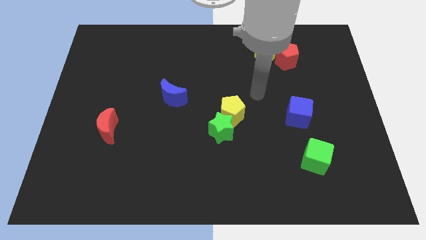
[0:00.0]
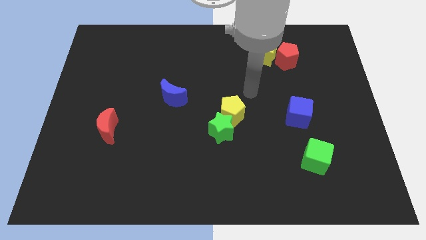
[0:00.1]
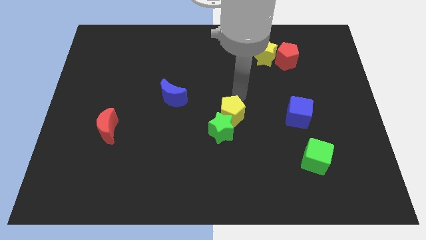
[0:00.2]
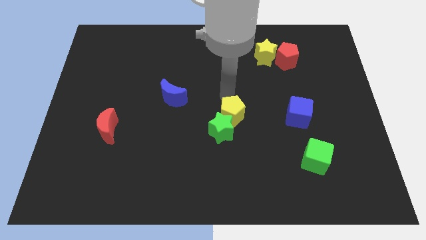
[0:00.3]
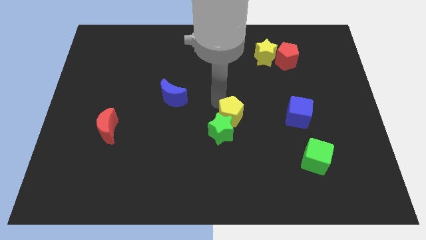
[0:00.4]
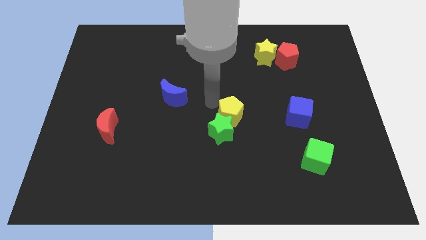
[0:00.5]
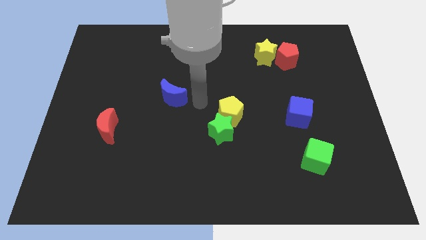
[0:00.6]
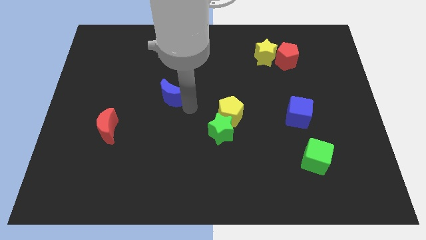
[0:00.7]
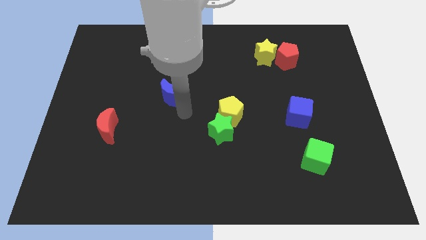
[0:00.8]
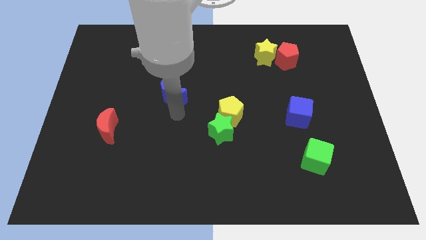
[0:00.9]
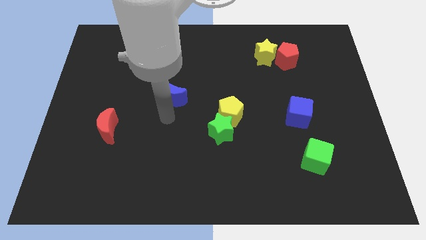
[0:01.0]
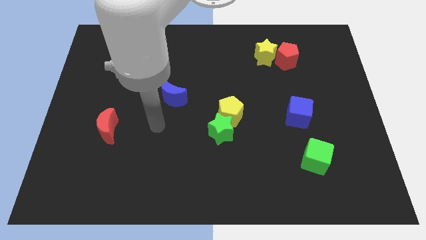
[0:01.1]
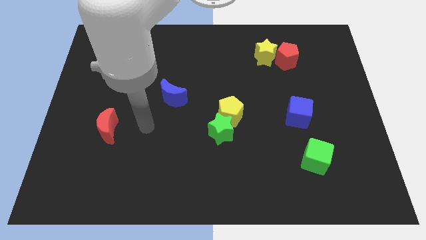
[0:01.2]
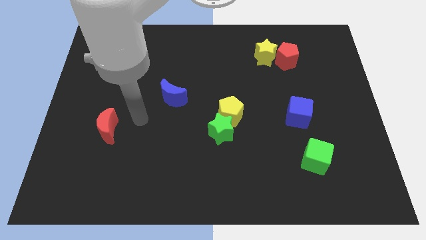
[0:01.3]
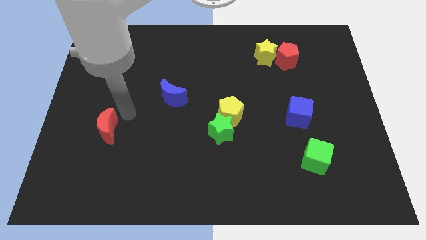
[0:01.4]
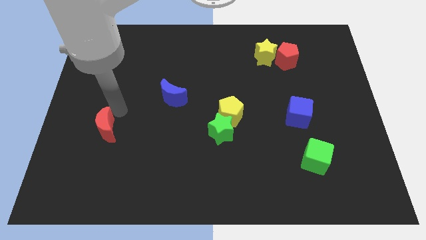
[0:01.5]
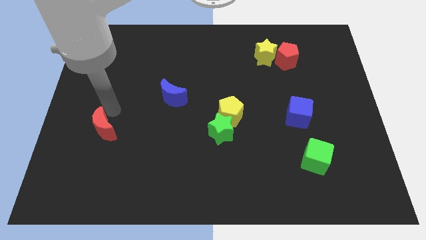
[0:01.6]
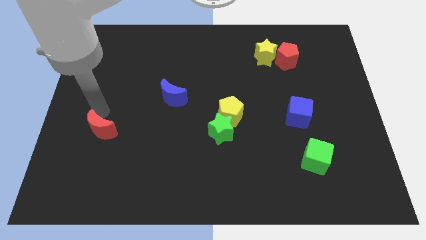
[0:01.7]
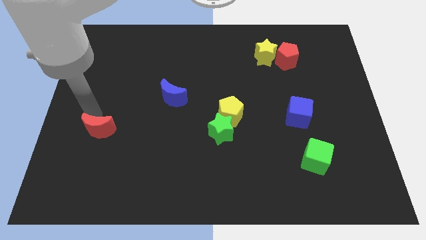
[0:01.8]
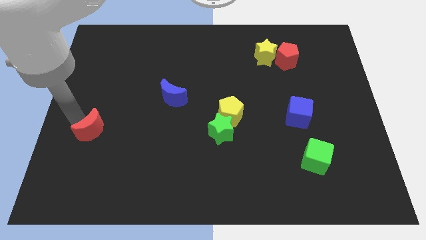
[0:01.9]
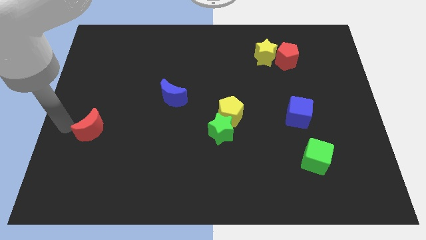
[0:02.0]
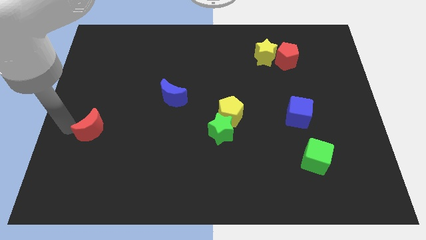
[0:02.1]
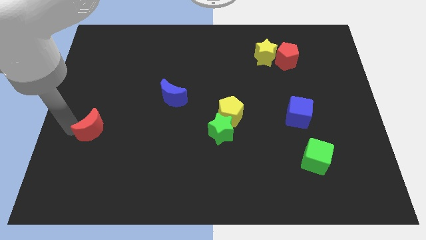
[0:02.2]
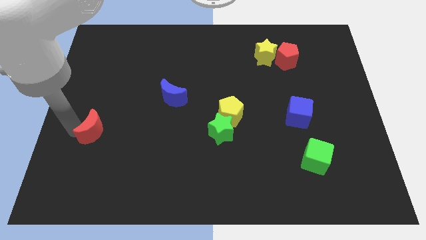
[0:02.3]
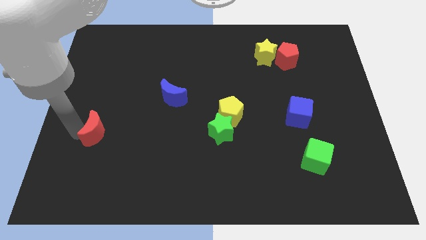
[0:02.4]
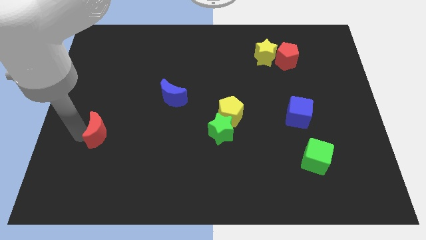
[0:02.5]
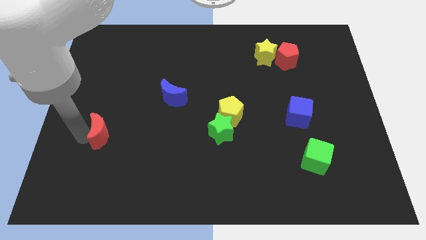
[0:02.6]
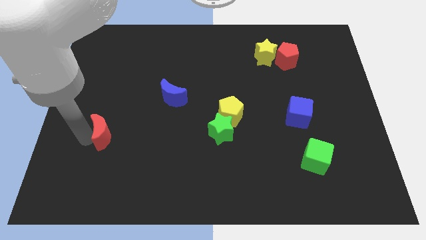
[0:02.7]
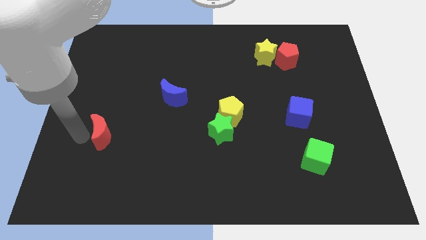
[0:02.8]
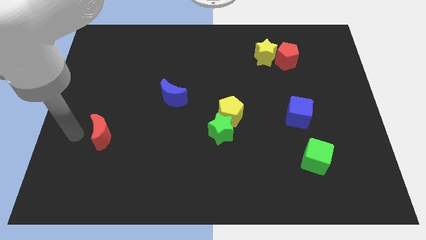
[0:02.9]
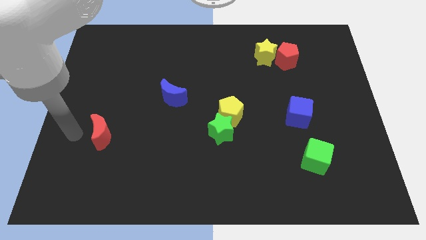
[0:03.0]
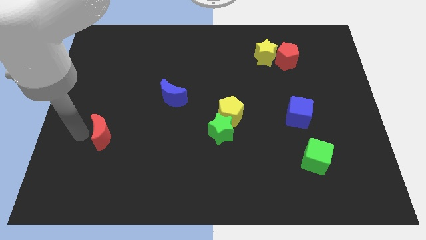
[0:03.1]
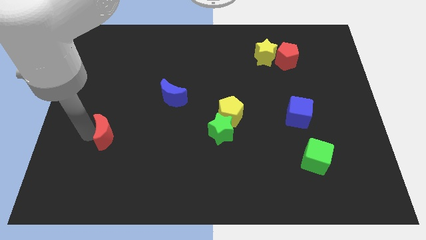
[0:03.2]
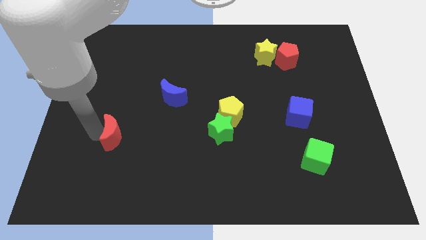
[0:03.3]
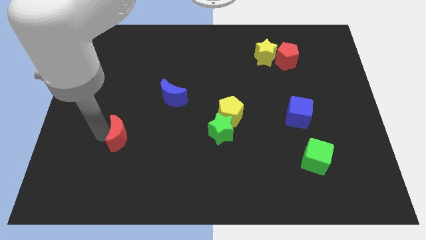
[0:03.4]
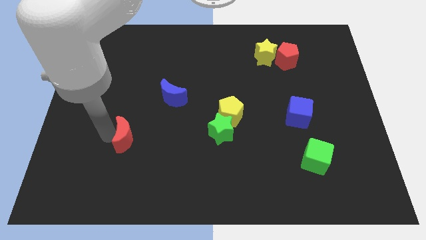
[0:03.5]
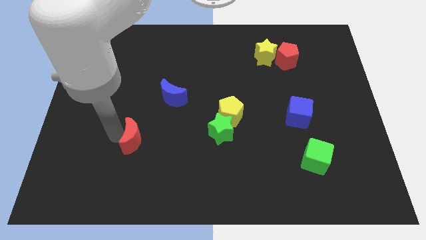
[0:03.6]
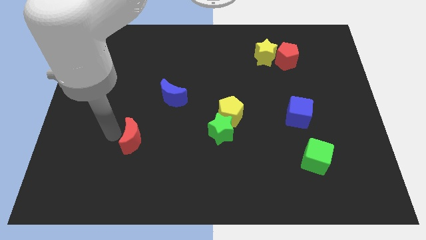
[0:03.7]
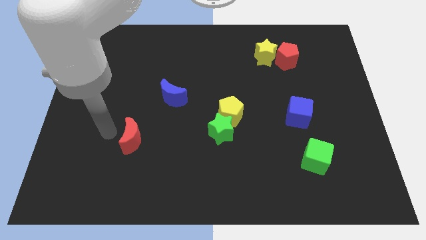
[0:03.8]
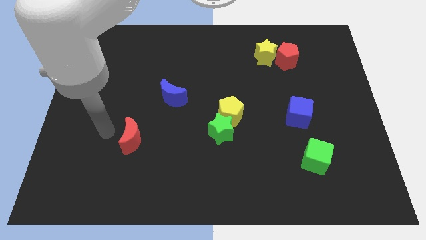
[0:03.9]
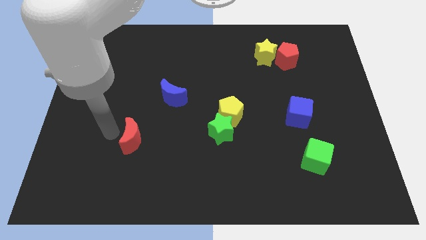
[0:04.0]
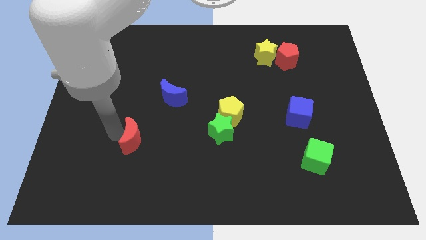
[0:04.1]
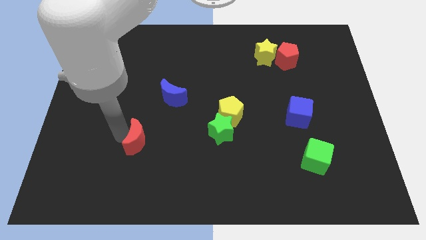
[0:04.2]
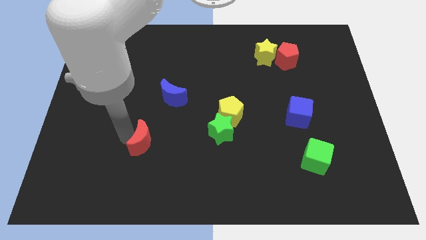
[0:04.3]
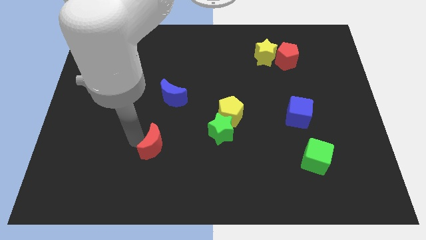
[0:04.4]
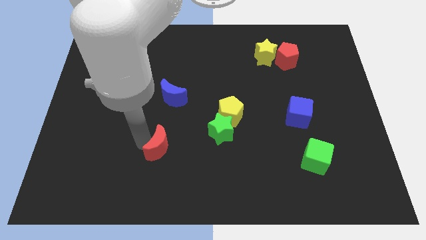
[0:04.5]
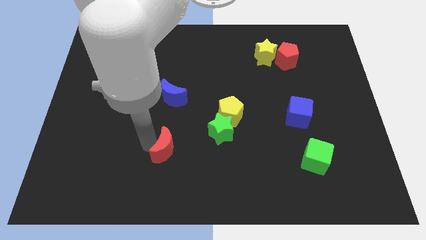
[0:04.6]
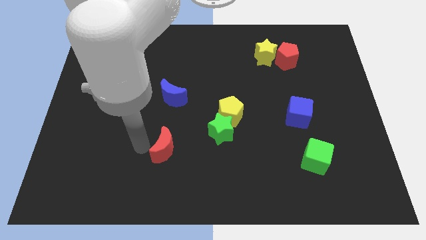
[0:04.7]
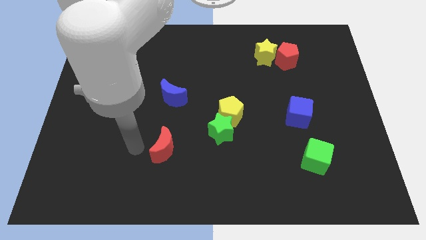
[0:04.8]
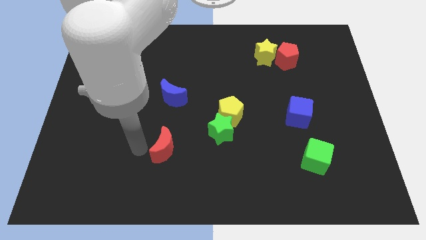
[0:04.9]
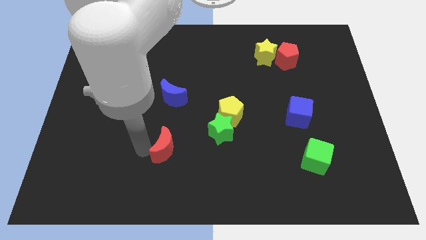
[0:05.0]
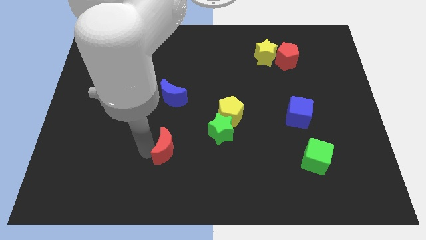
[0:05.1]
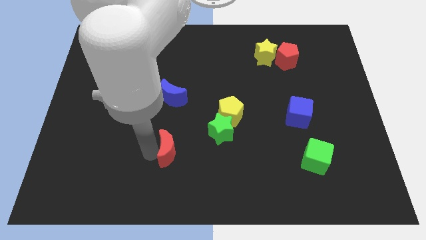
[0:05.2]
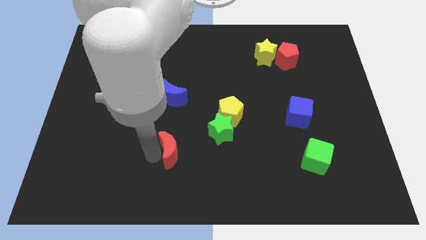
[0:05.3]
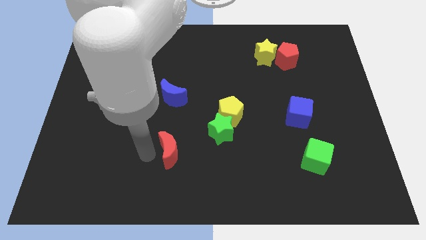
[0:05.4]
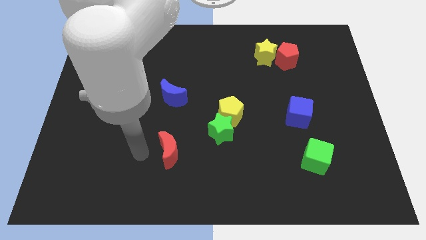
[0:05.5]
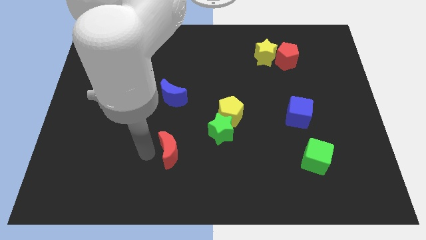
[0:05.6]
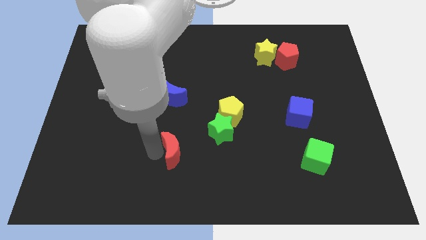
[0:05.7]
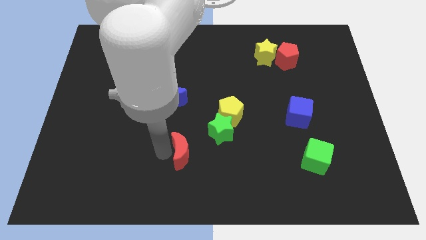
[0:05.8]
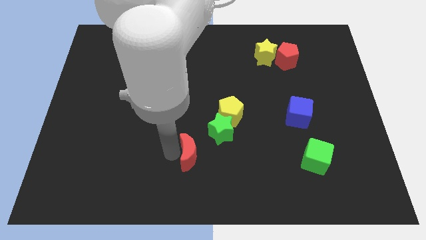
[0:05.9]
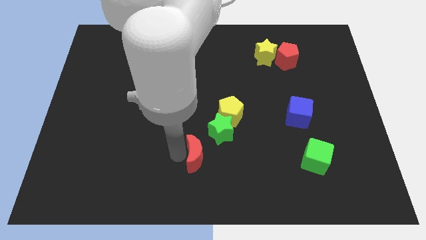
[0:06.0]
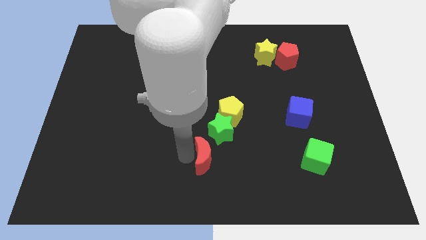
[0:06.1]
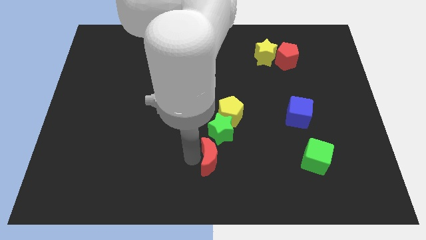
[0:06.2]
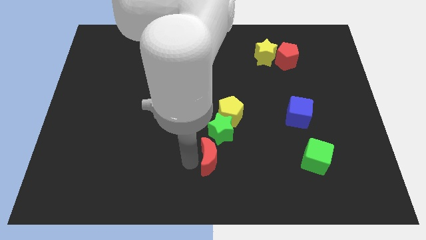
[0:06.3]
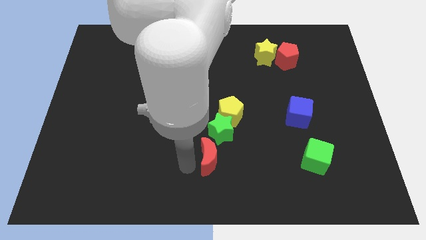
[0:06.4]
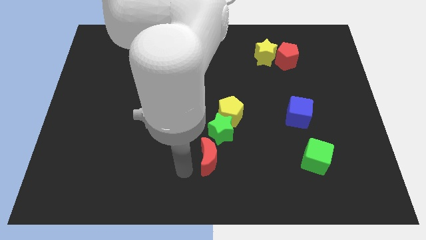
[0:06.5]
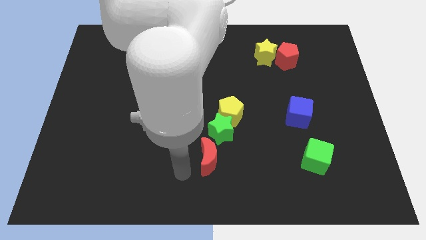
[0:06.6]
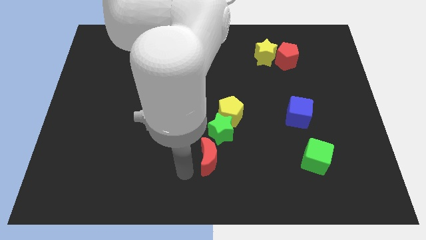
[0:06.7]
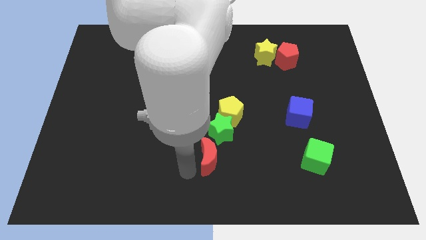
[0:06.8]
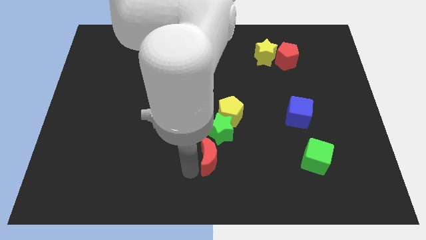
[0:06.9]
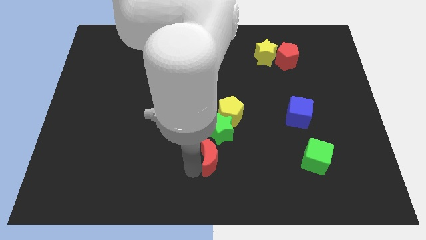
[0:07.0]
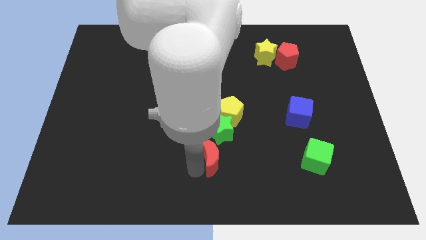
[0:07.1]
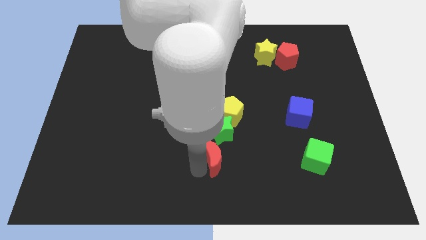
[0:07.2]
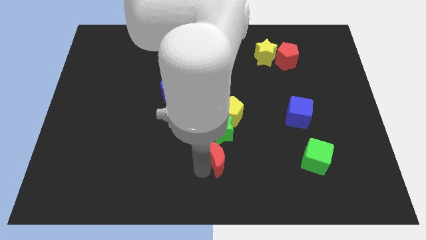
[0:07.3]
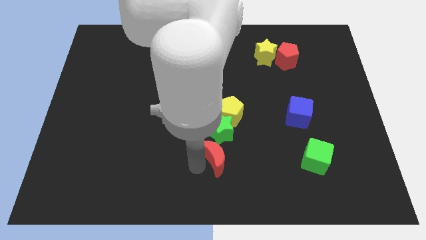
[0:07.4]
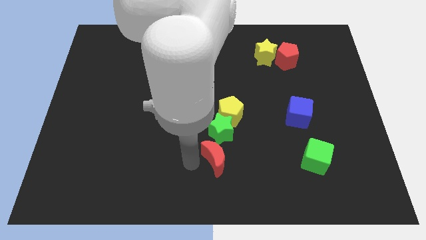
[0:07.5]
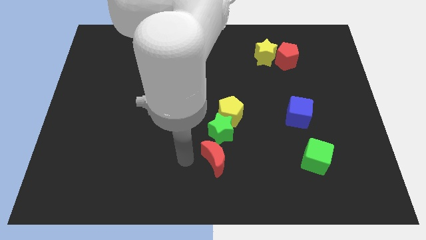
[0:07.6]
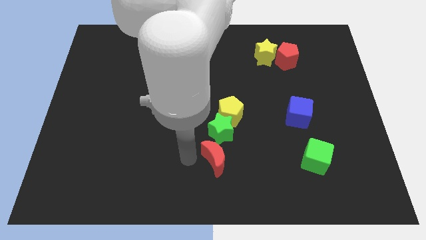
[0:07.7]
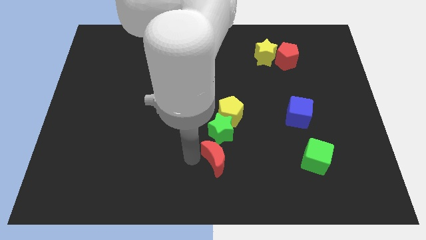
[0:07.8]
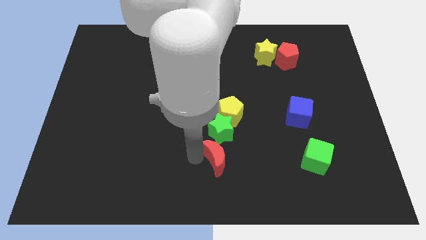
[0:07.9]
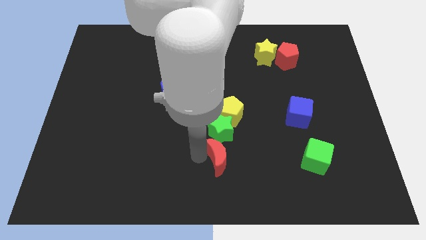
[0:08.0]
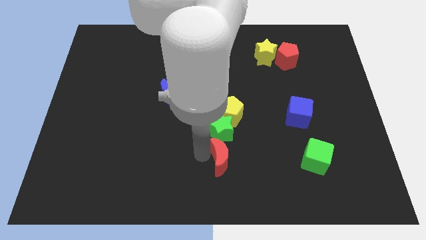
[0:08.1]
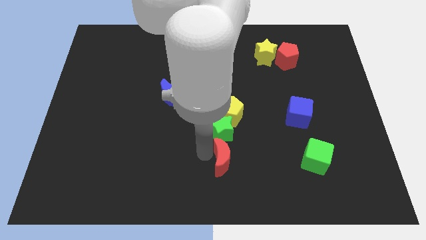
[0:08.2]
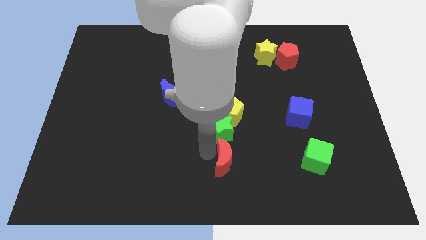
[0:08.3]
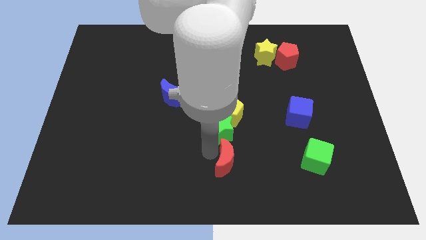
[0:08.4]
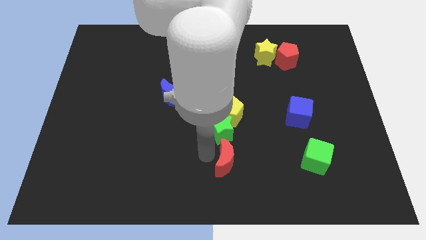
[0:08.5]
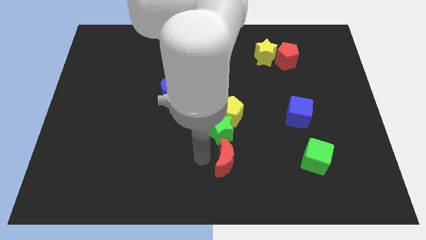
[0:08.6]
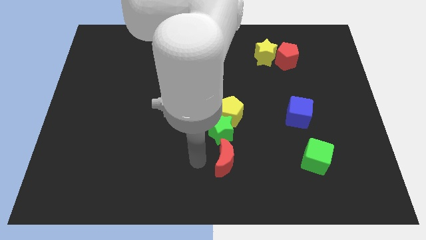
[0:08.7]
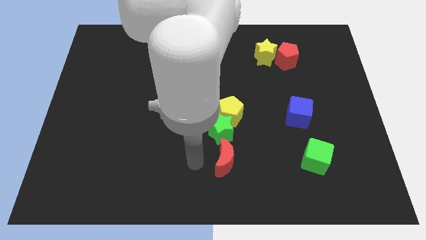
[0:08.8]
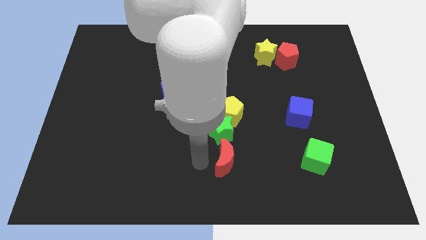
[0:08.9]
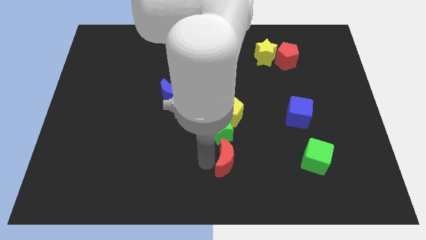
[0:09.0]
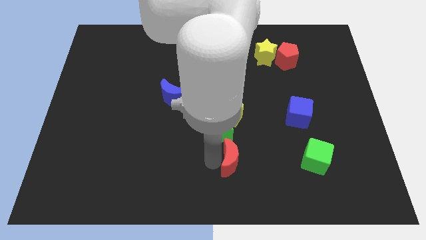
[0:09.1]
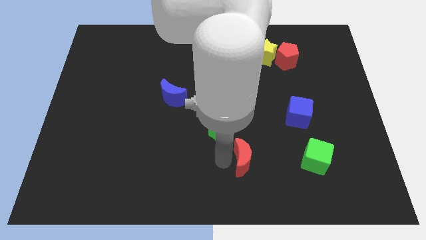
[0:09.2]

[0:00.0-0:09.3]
slide the red moon to the left side of the green cube
